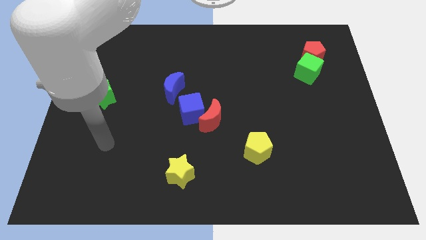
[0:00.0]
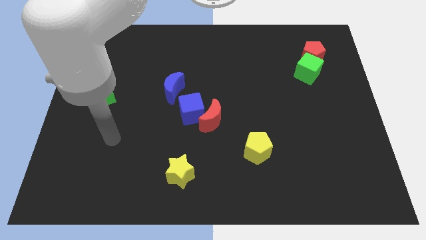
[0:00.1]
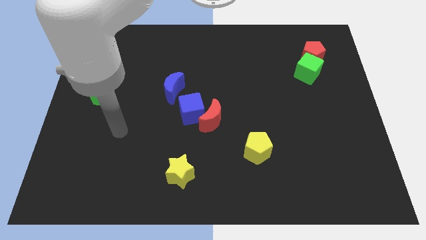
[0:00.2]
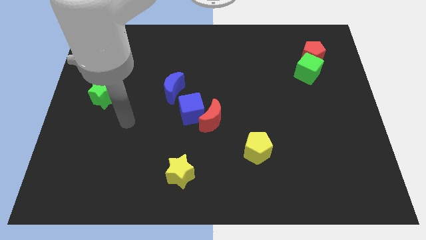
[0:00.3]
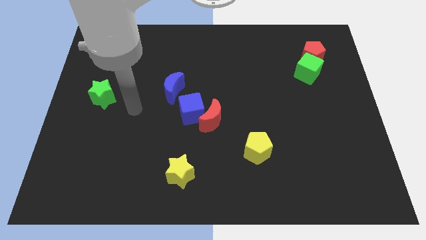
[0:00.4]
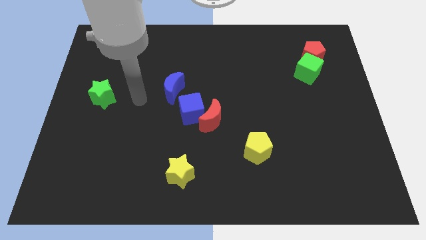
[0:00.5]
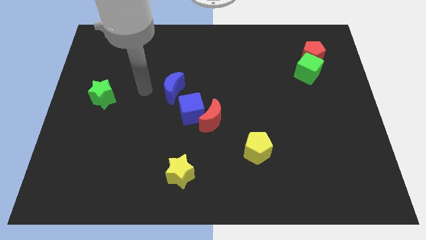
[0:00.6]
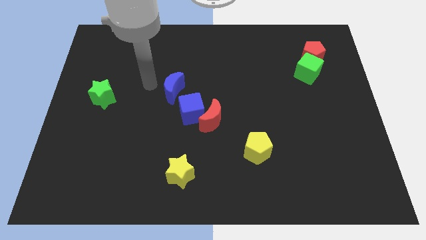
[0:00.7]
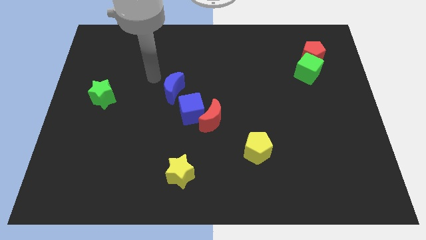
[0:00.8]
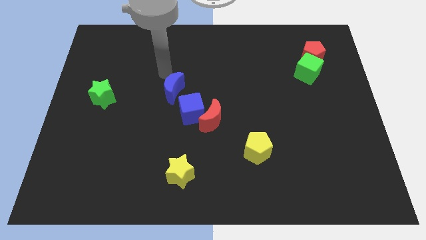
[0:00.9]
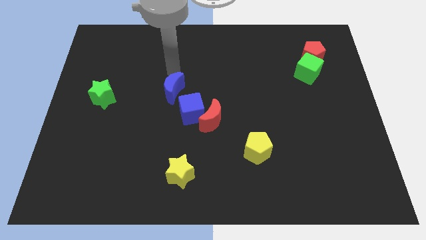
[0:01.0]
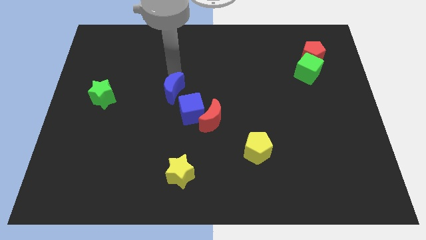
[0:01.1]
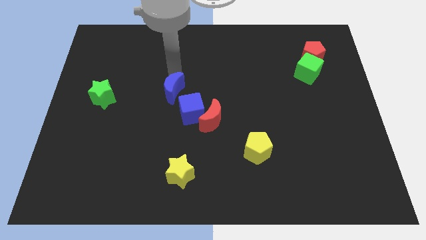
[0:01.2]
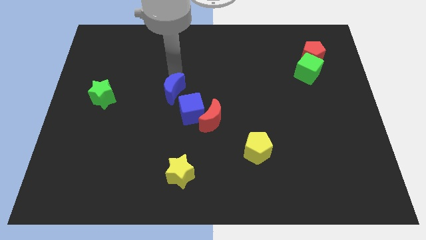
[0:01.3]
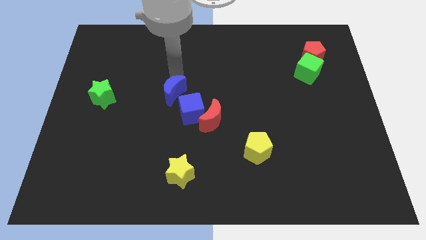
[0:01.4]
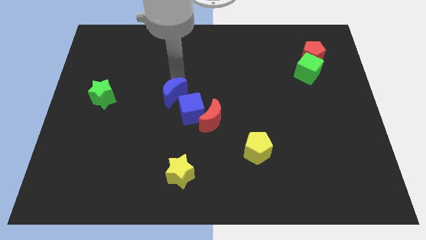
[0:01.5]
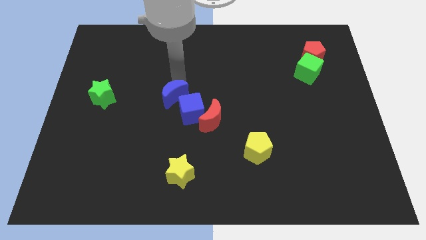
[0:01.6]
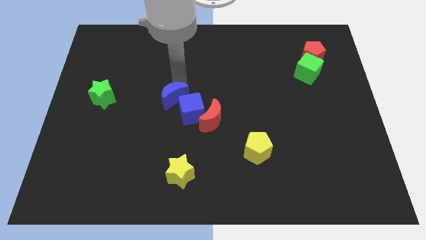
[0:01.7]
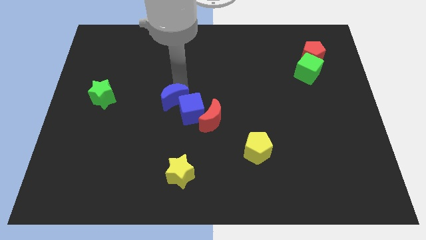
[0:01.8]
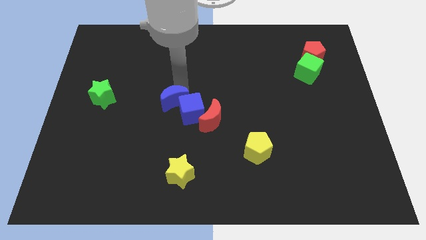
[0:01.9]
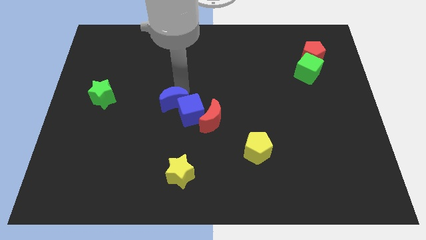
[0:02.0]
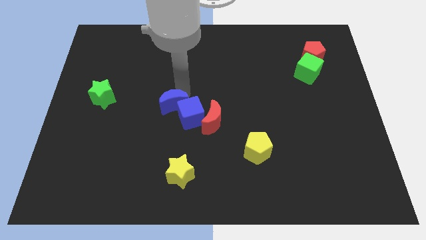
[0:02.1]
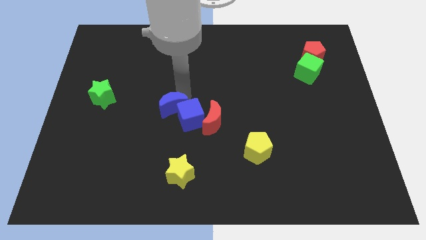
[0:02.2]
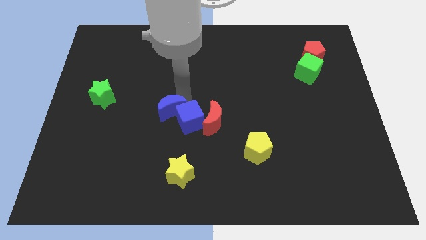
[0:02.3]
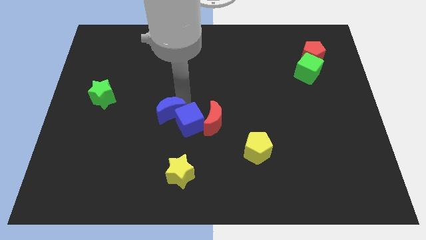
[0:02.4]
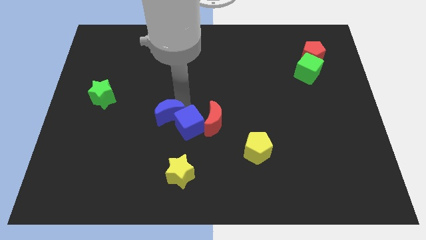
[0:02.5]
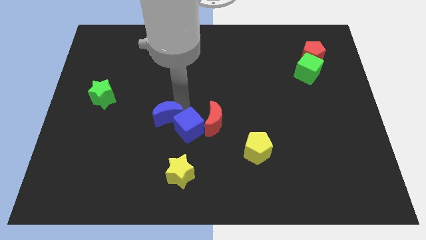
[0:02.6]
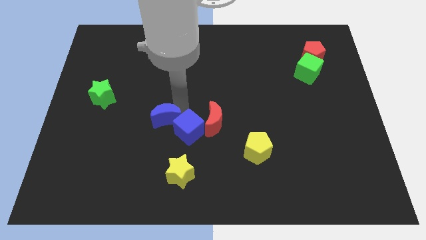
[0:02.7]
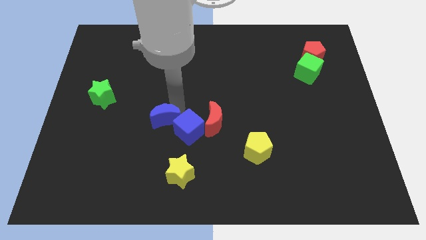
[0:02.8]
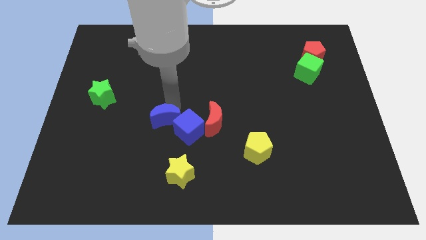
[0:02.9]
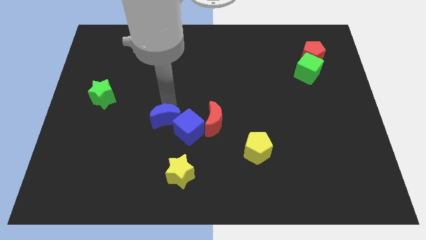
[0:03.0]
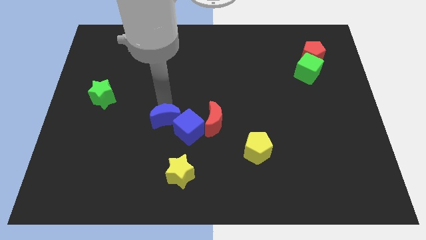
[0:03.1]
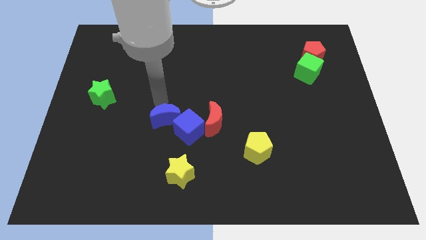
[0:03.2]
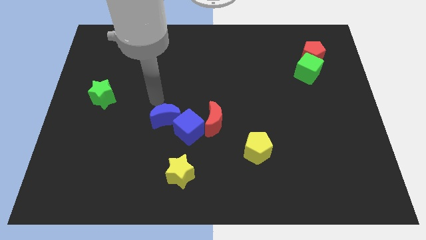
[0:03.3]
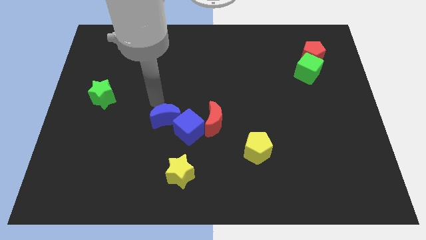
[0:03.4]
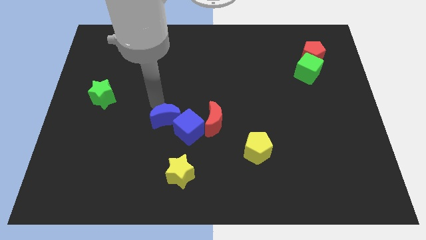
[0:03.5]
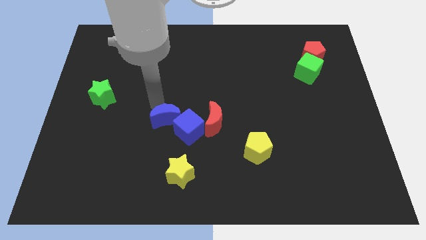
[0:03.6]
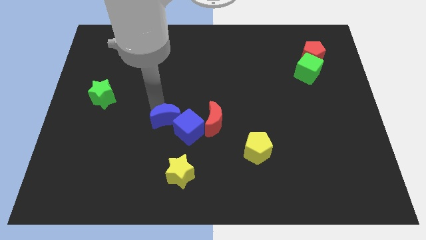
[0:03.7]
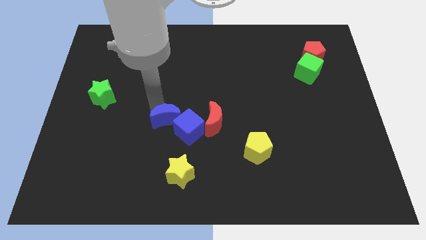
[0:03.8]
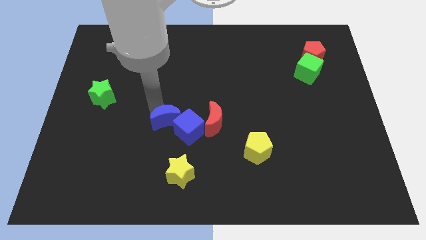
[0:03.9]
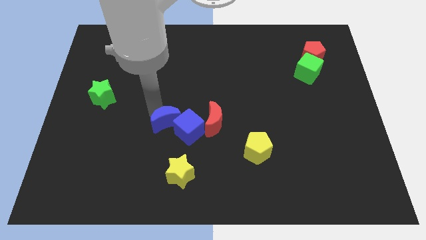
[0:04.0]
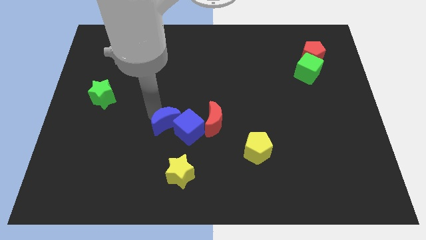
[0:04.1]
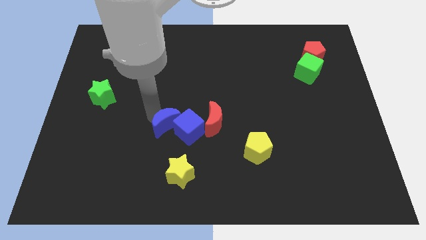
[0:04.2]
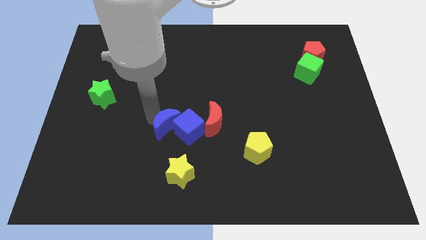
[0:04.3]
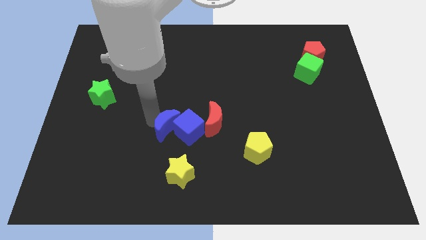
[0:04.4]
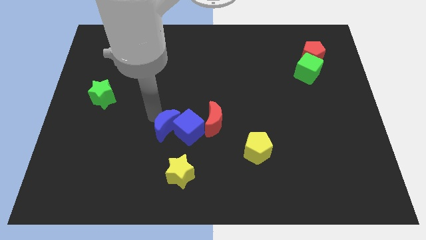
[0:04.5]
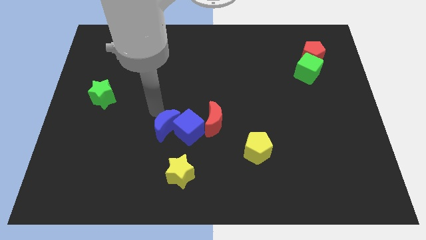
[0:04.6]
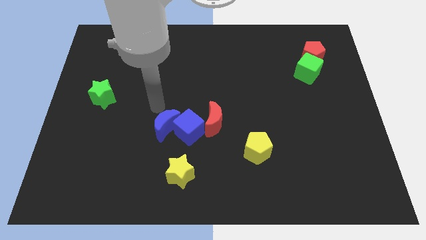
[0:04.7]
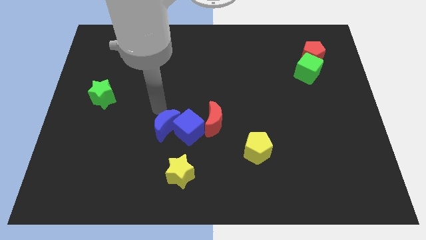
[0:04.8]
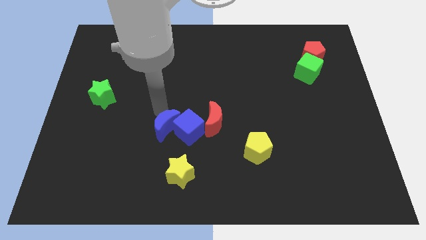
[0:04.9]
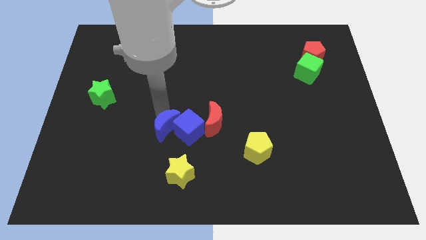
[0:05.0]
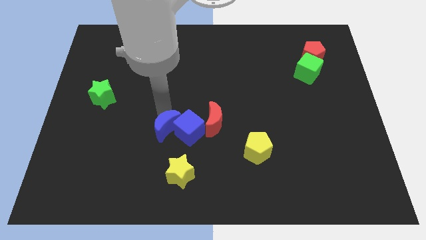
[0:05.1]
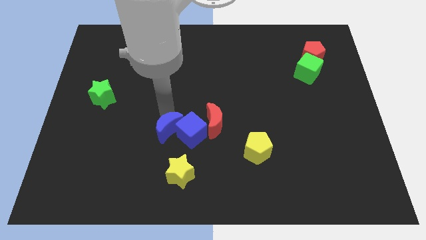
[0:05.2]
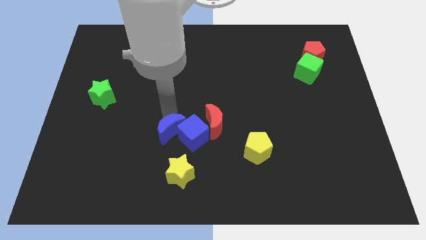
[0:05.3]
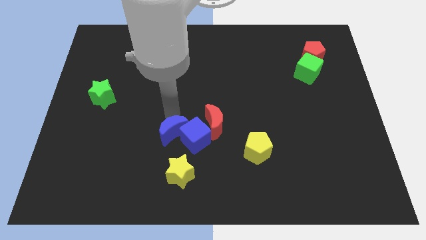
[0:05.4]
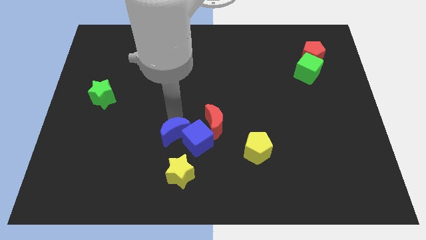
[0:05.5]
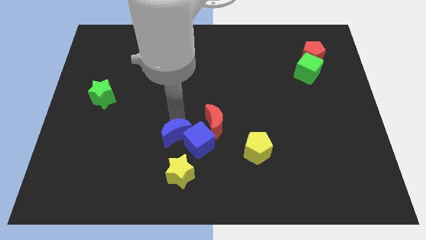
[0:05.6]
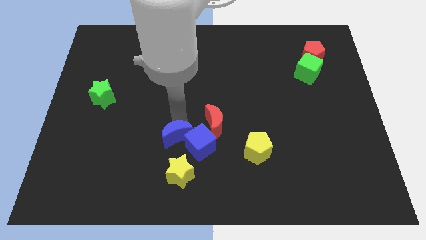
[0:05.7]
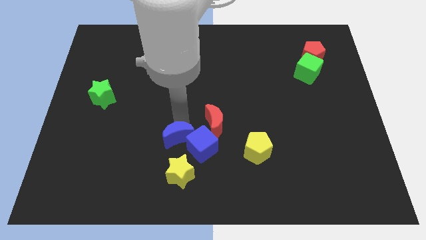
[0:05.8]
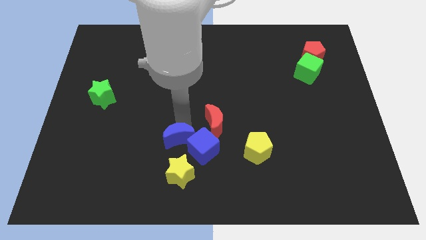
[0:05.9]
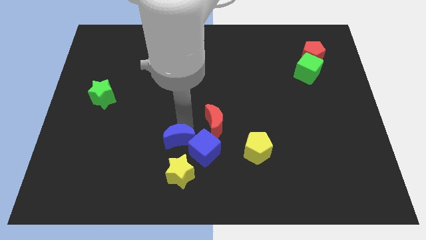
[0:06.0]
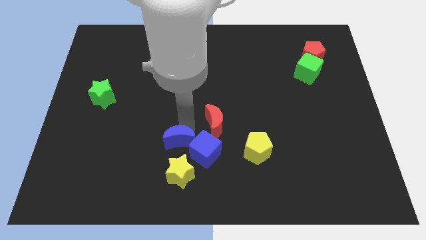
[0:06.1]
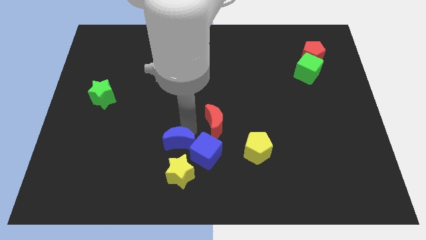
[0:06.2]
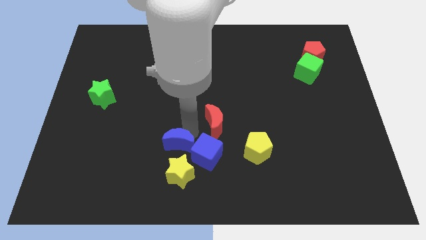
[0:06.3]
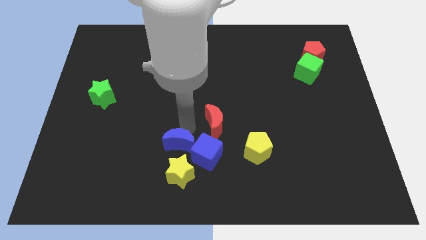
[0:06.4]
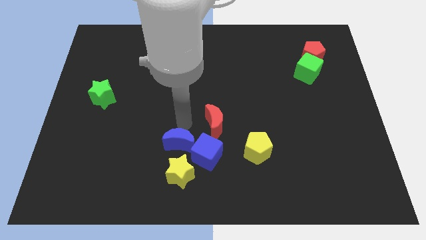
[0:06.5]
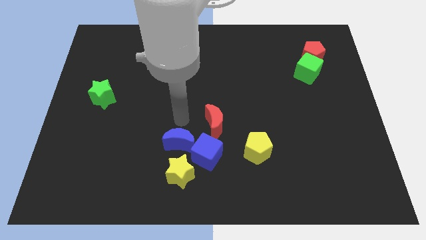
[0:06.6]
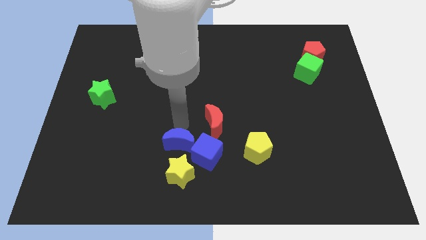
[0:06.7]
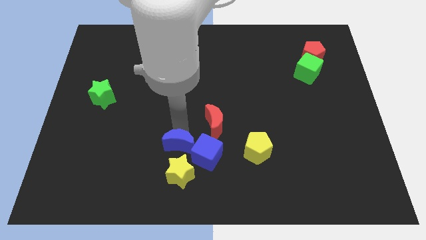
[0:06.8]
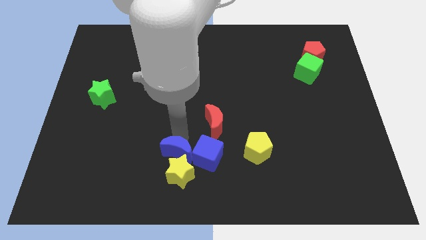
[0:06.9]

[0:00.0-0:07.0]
push the blue moon towards the yellow star
